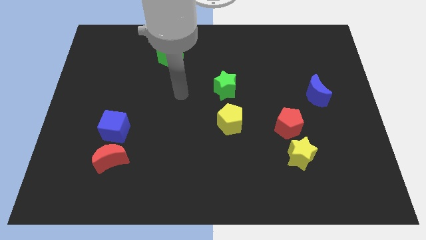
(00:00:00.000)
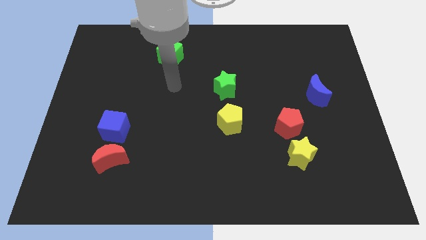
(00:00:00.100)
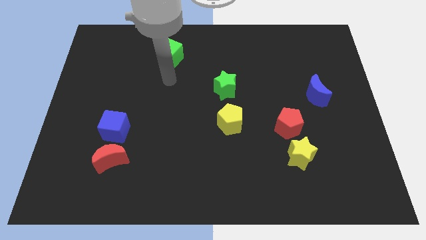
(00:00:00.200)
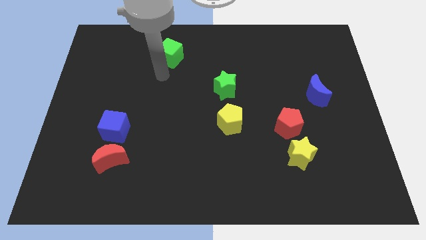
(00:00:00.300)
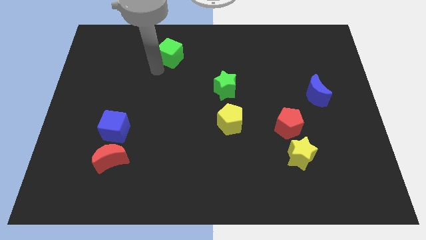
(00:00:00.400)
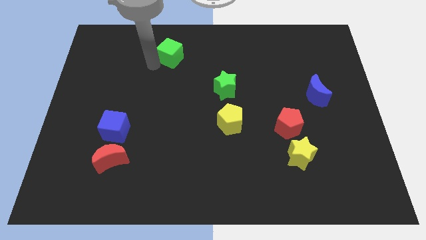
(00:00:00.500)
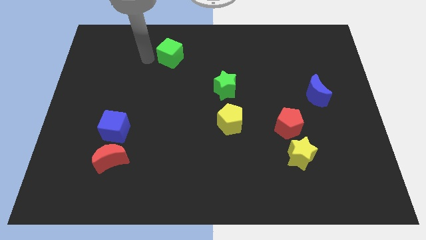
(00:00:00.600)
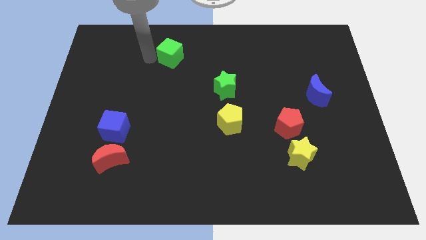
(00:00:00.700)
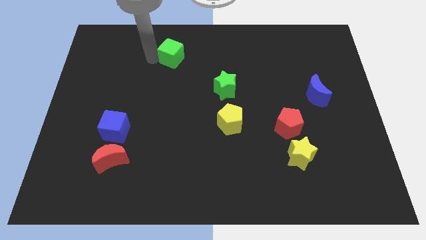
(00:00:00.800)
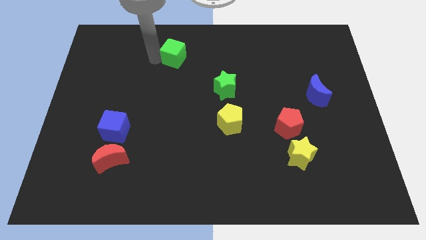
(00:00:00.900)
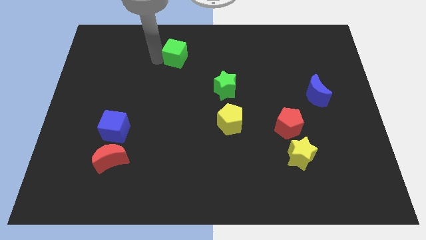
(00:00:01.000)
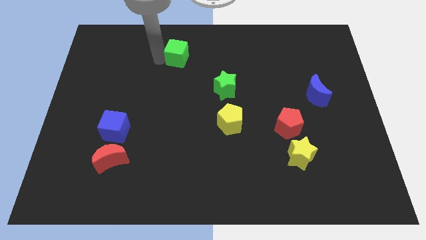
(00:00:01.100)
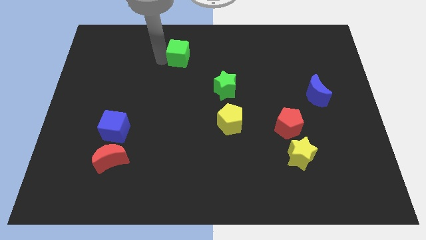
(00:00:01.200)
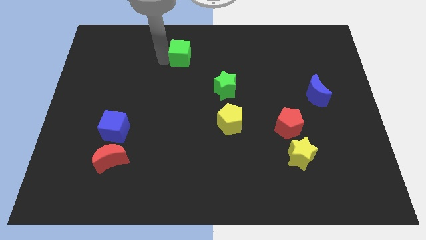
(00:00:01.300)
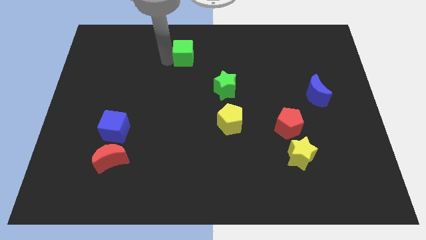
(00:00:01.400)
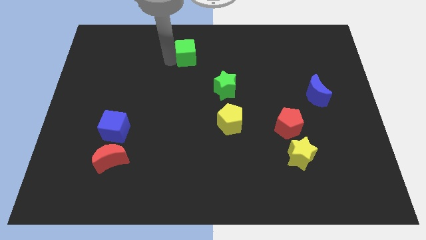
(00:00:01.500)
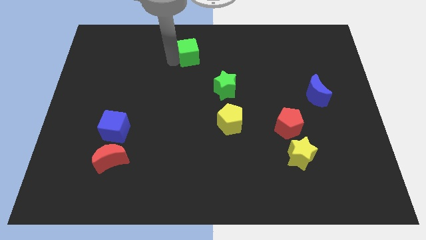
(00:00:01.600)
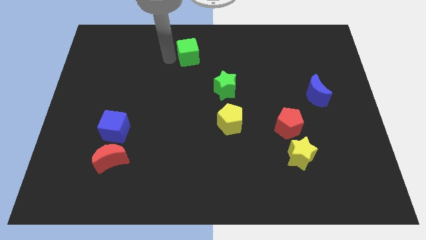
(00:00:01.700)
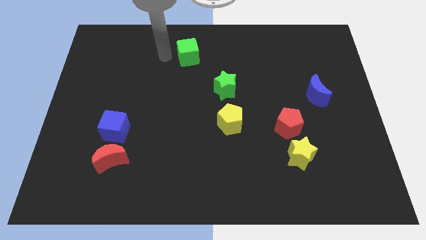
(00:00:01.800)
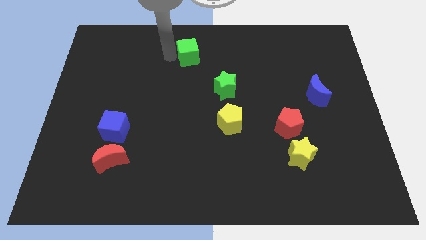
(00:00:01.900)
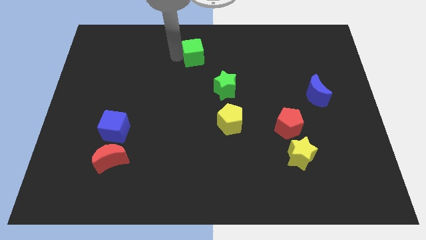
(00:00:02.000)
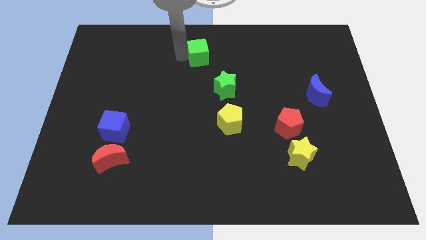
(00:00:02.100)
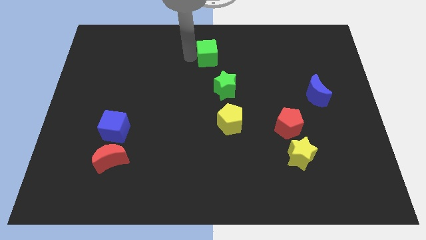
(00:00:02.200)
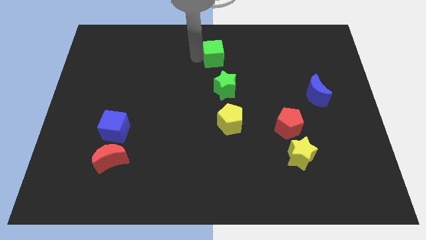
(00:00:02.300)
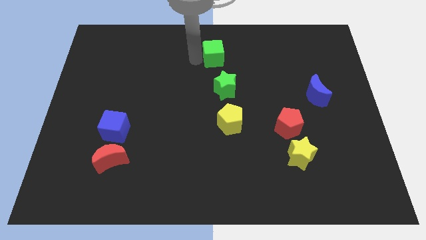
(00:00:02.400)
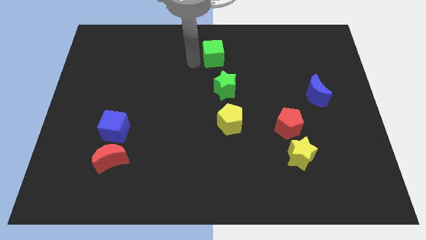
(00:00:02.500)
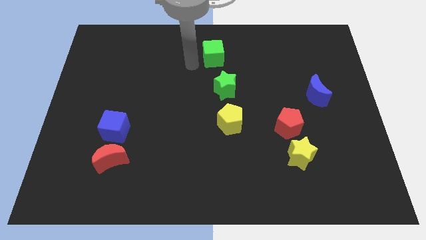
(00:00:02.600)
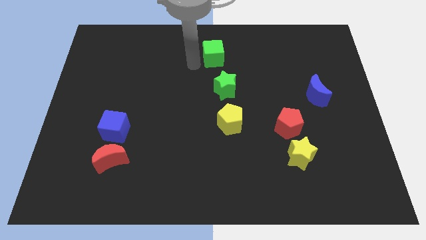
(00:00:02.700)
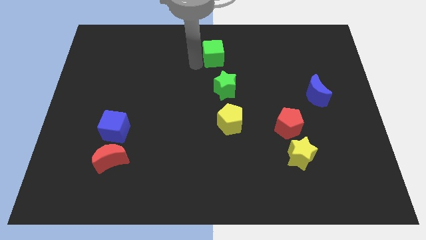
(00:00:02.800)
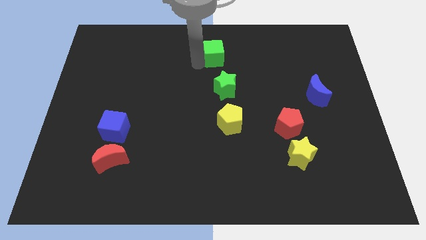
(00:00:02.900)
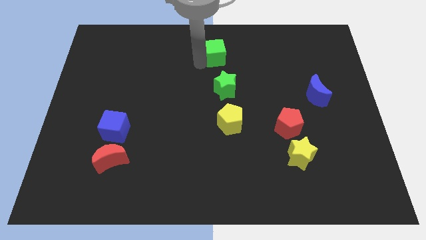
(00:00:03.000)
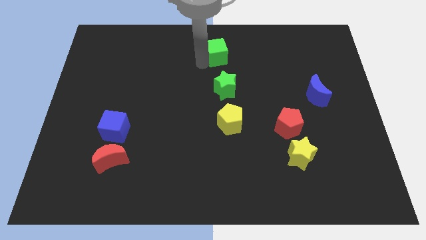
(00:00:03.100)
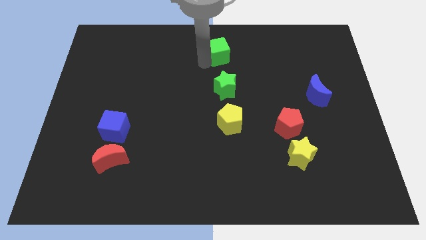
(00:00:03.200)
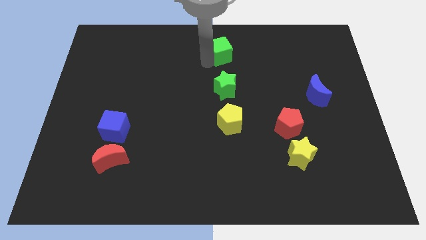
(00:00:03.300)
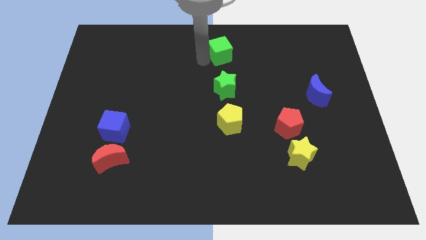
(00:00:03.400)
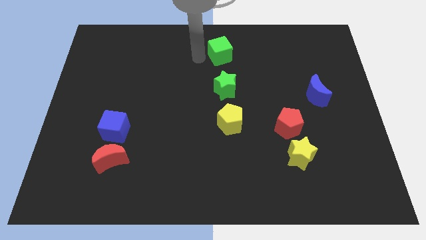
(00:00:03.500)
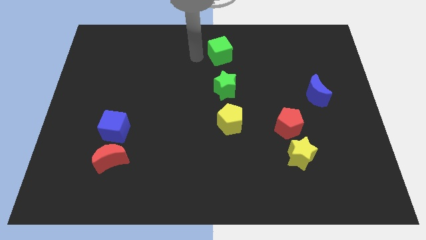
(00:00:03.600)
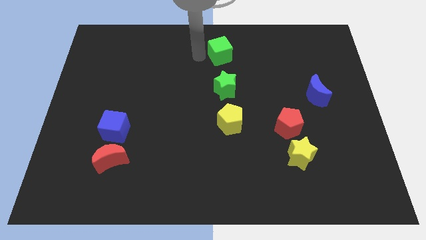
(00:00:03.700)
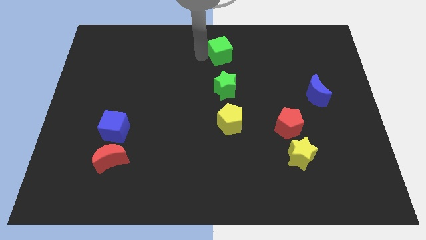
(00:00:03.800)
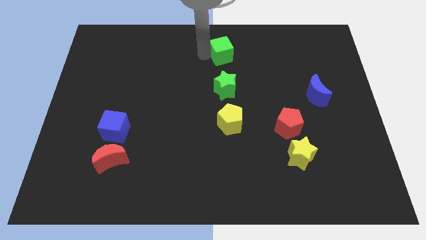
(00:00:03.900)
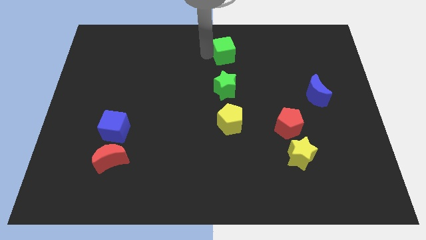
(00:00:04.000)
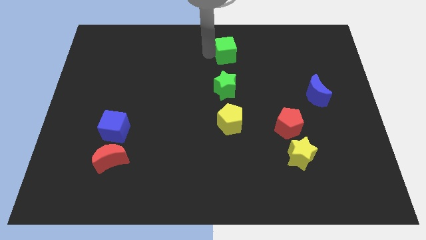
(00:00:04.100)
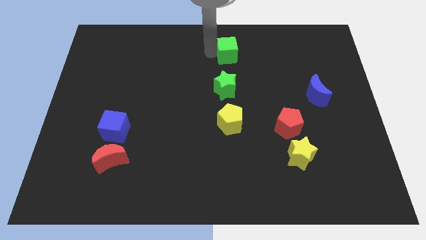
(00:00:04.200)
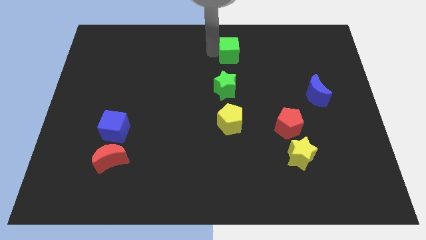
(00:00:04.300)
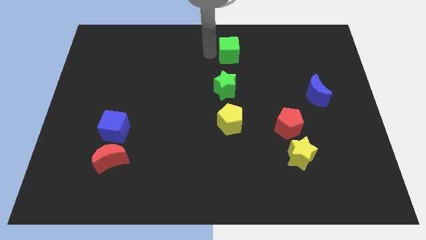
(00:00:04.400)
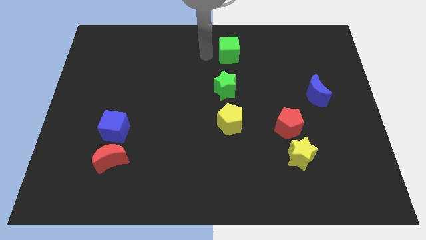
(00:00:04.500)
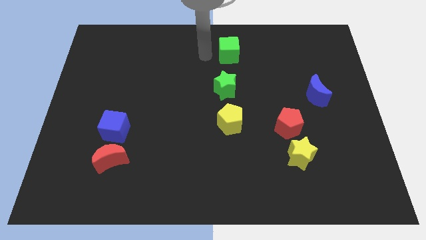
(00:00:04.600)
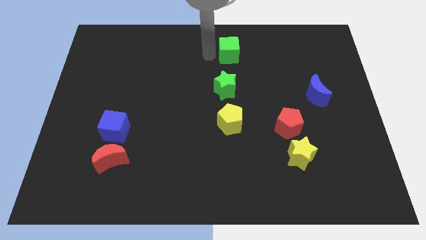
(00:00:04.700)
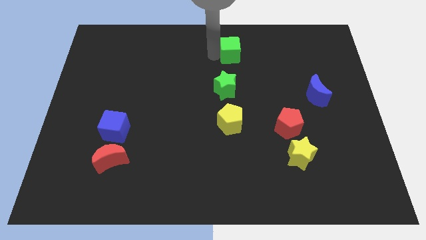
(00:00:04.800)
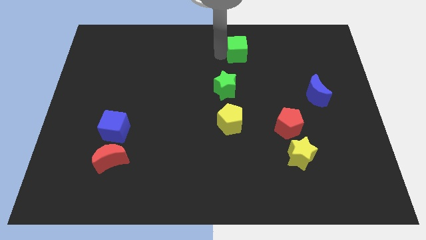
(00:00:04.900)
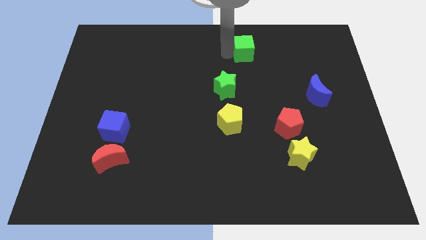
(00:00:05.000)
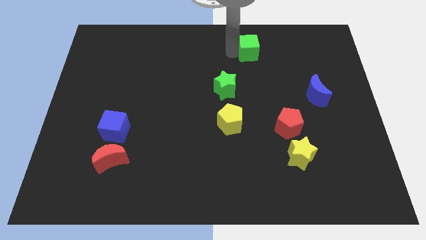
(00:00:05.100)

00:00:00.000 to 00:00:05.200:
slide the green cube right

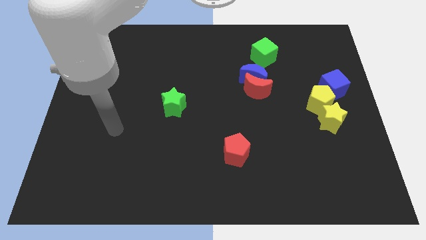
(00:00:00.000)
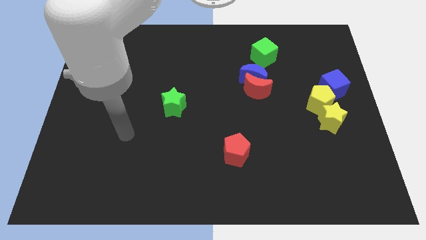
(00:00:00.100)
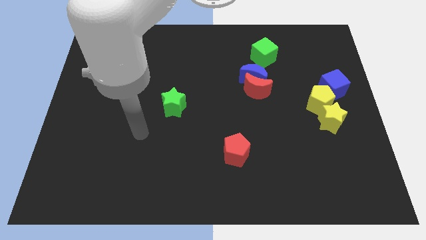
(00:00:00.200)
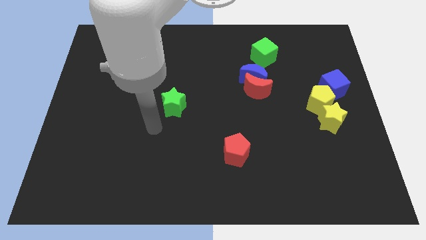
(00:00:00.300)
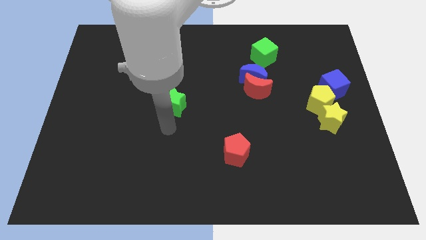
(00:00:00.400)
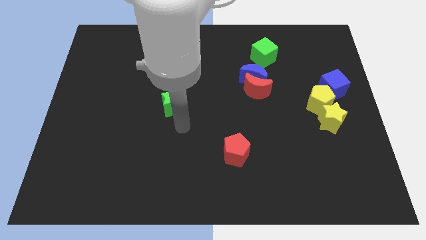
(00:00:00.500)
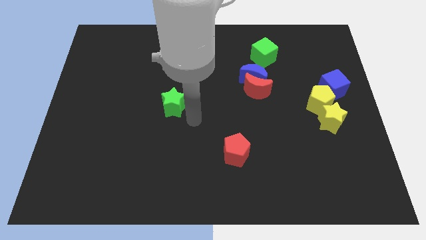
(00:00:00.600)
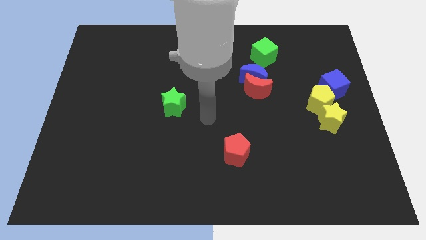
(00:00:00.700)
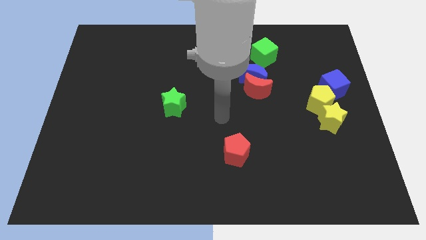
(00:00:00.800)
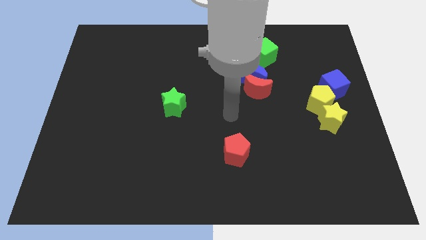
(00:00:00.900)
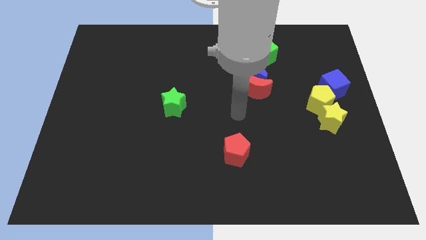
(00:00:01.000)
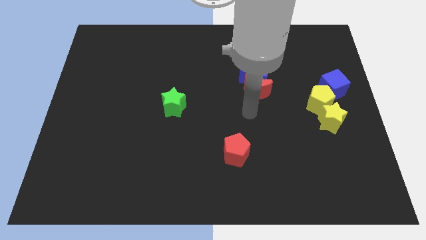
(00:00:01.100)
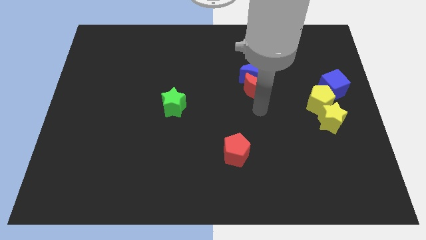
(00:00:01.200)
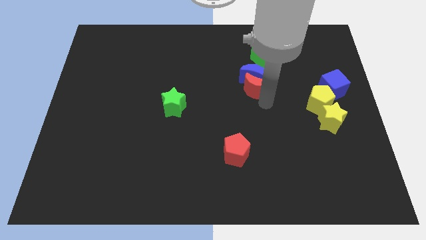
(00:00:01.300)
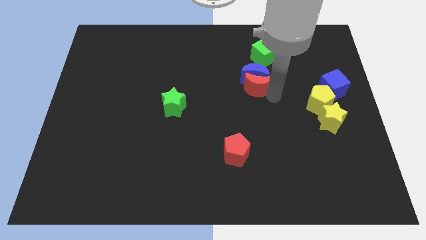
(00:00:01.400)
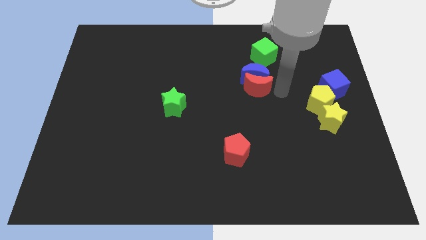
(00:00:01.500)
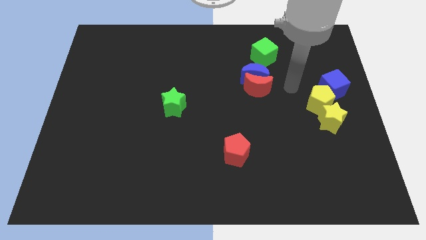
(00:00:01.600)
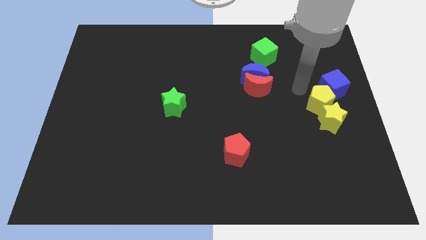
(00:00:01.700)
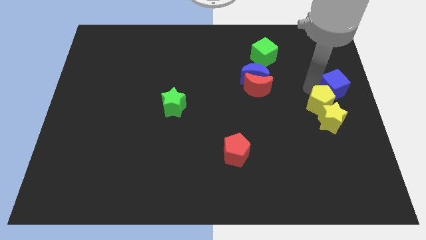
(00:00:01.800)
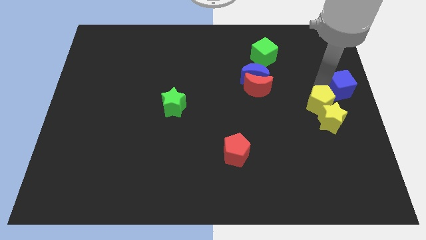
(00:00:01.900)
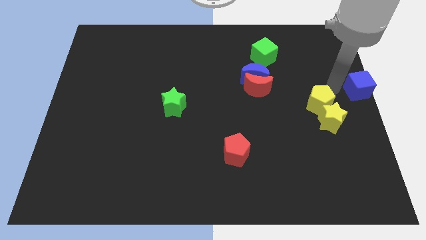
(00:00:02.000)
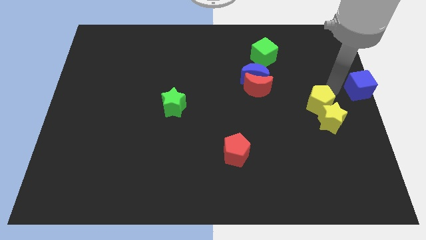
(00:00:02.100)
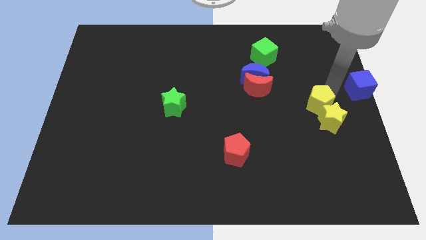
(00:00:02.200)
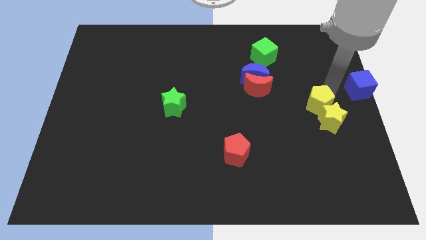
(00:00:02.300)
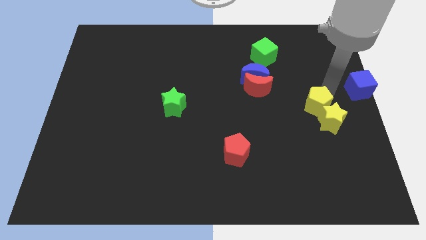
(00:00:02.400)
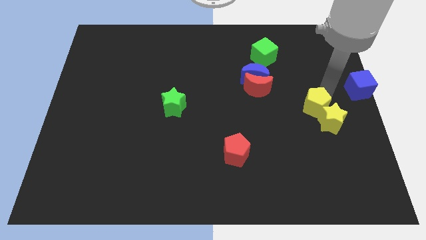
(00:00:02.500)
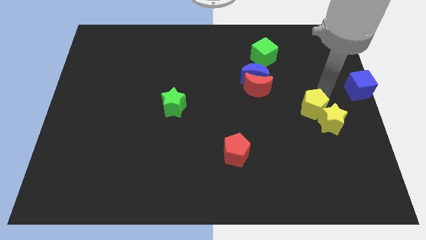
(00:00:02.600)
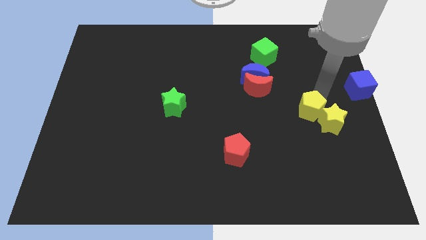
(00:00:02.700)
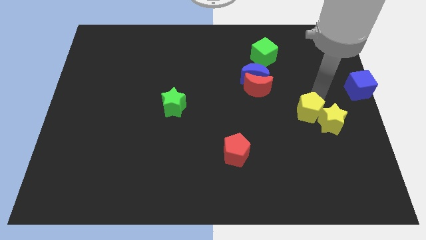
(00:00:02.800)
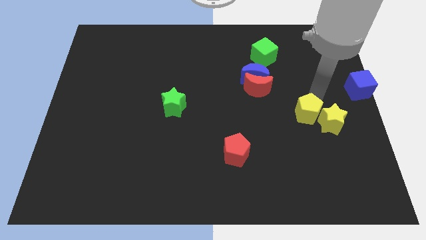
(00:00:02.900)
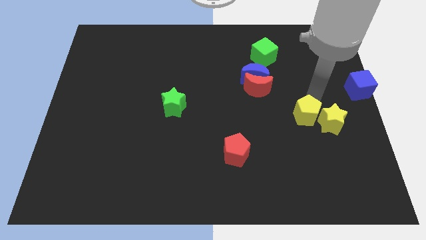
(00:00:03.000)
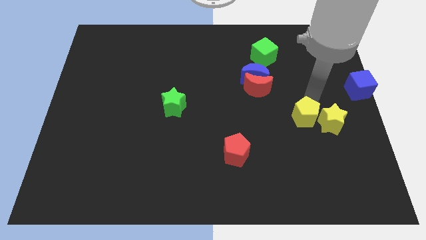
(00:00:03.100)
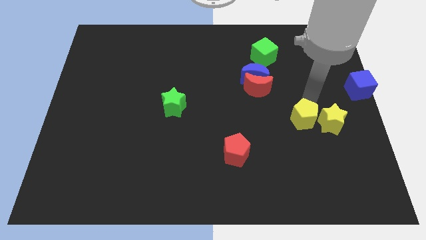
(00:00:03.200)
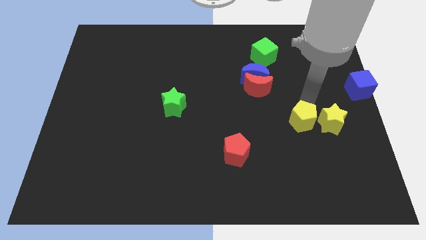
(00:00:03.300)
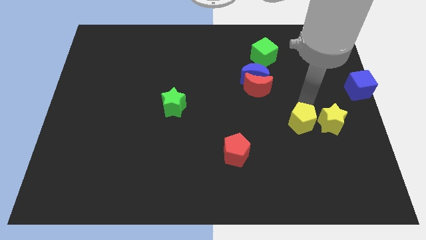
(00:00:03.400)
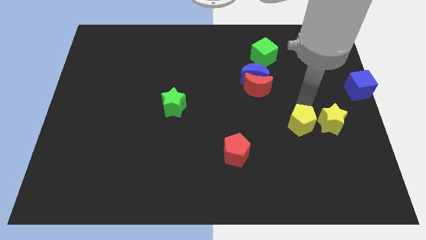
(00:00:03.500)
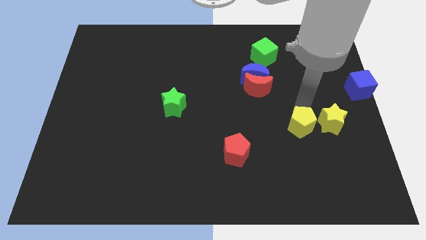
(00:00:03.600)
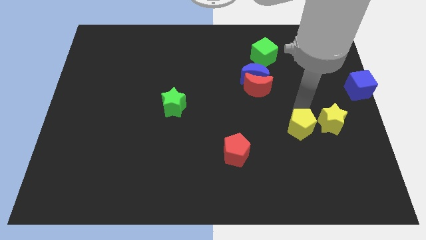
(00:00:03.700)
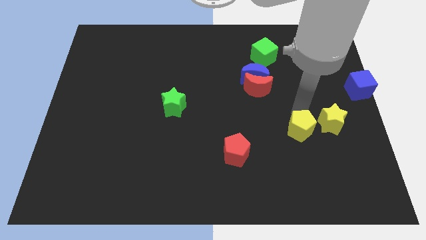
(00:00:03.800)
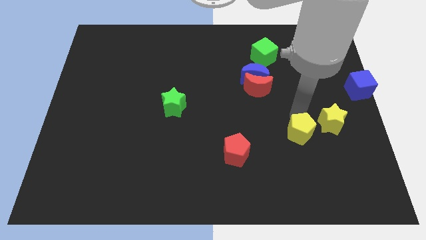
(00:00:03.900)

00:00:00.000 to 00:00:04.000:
move the yellow pentagon downwards a bit
